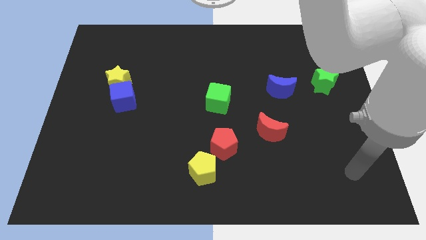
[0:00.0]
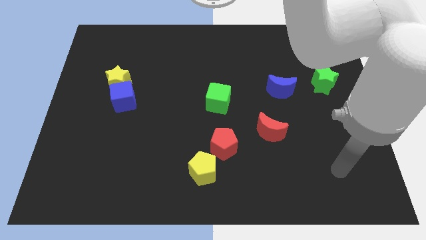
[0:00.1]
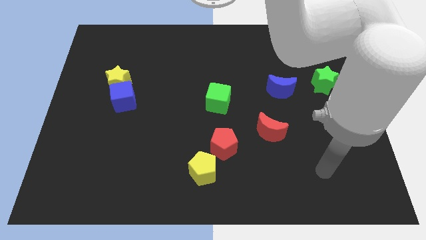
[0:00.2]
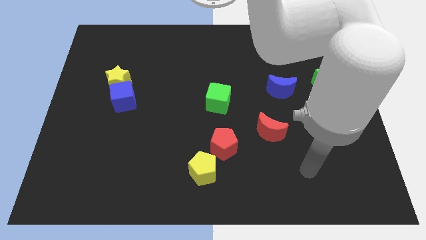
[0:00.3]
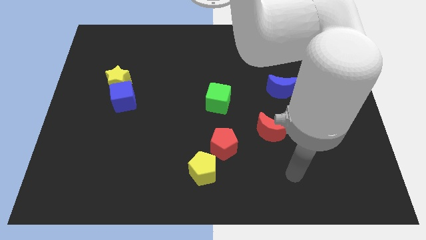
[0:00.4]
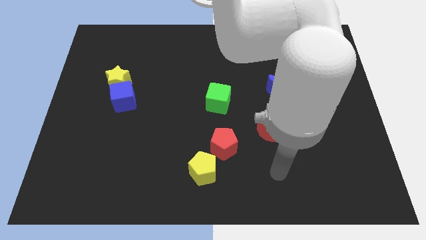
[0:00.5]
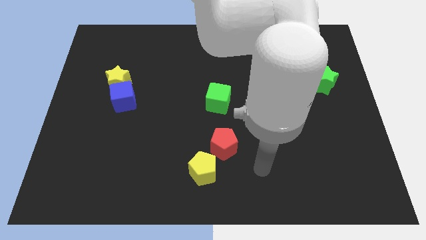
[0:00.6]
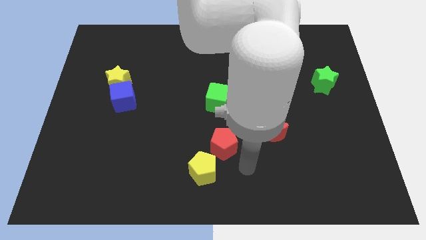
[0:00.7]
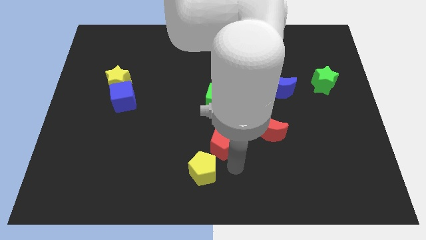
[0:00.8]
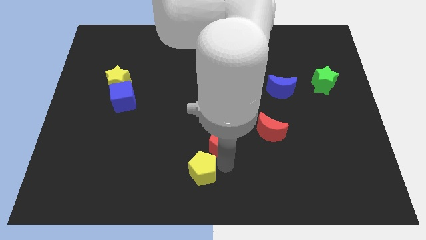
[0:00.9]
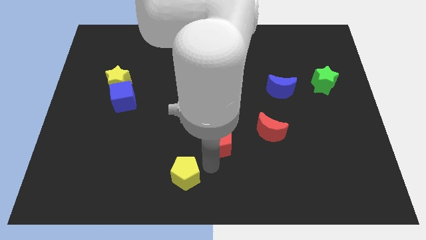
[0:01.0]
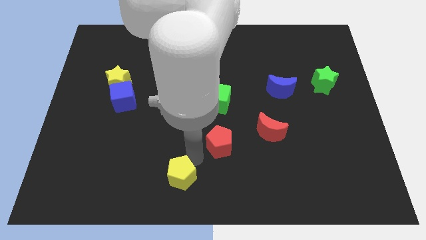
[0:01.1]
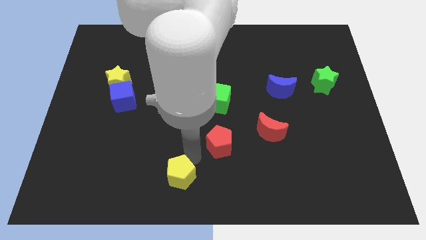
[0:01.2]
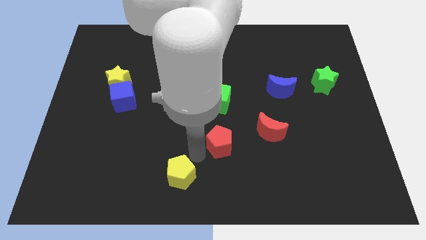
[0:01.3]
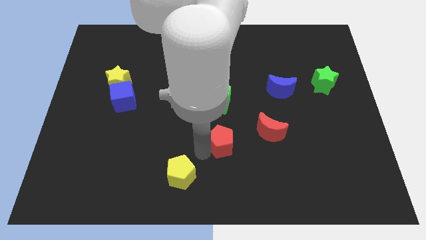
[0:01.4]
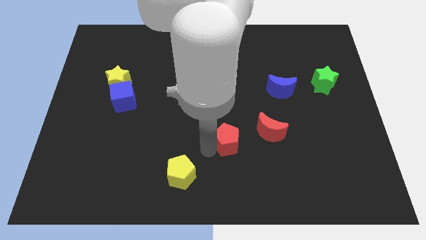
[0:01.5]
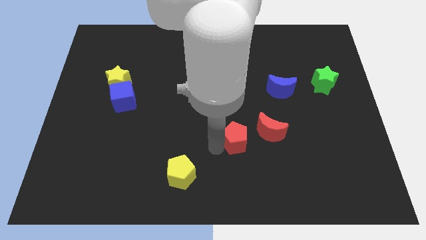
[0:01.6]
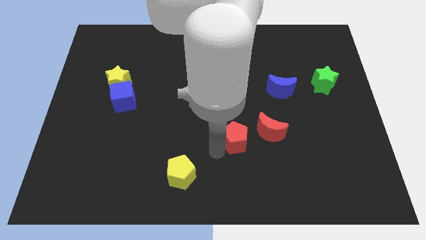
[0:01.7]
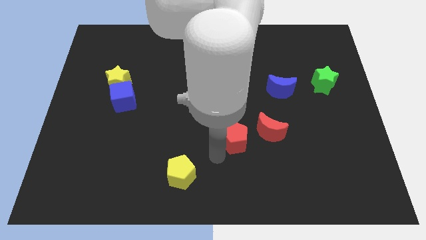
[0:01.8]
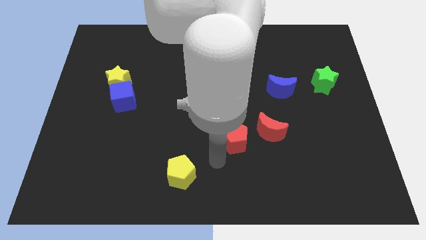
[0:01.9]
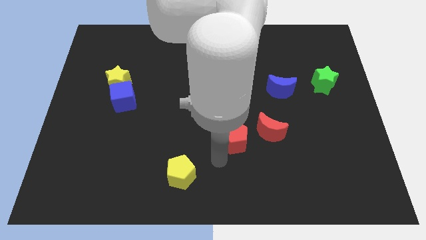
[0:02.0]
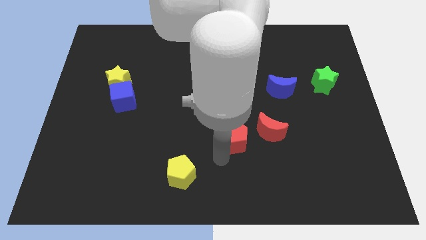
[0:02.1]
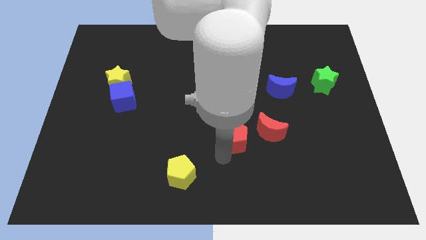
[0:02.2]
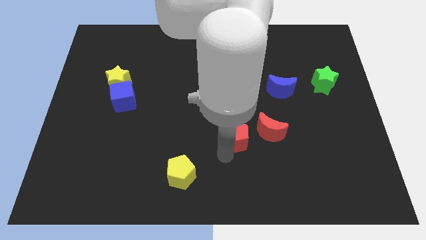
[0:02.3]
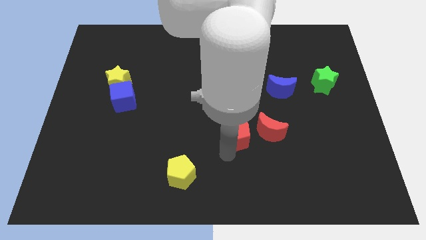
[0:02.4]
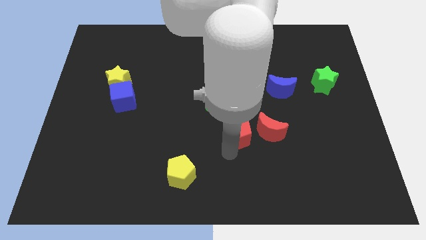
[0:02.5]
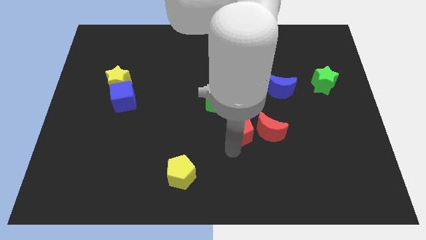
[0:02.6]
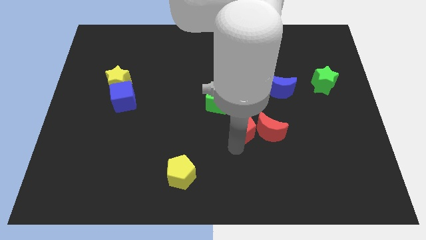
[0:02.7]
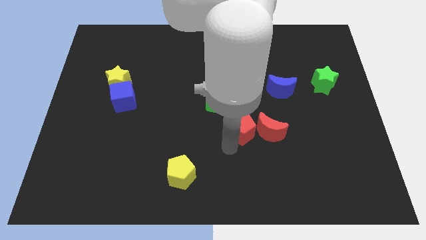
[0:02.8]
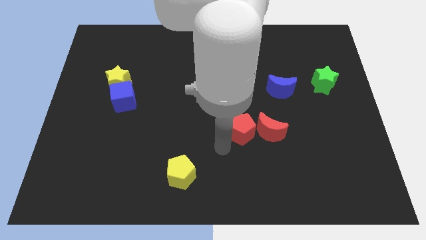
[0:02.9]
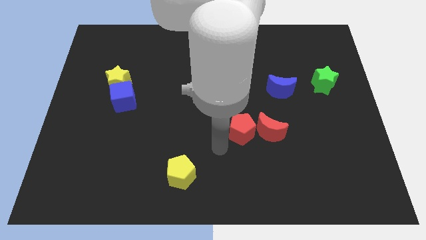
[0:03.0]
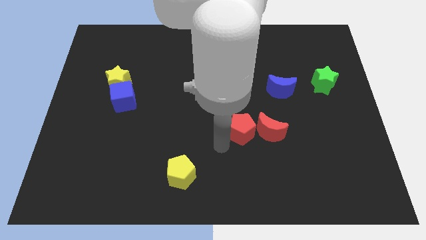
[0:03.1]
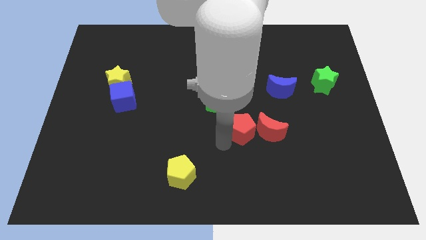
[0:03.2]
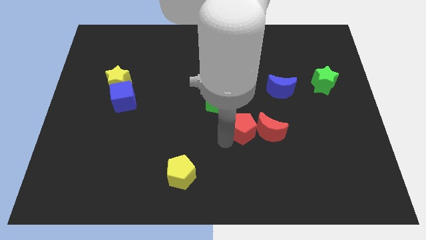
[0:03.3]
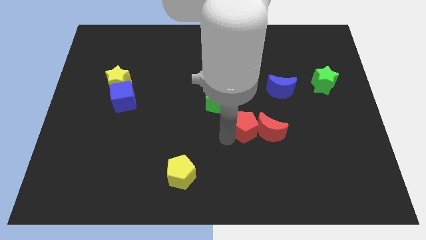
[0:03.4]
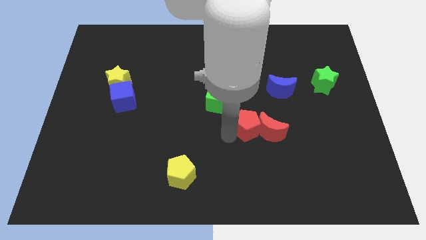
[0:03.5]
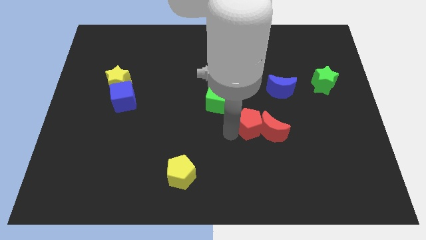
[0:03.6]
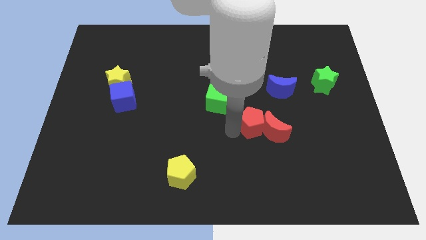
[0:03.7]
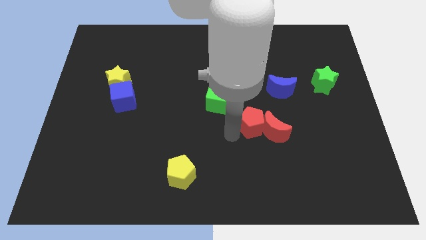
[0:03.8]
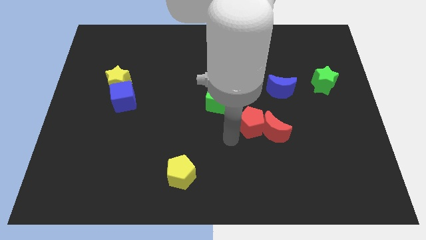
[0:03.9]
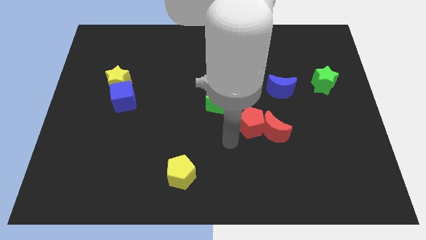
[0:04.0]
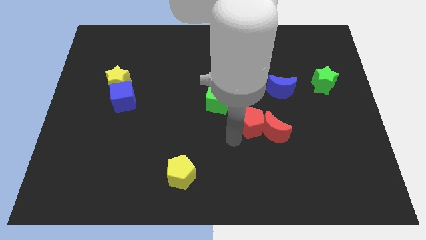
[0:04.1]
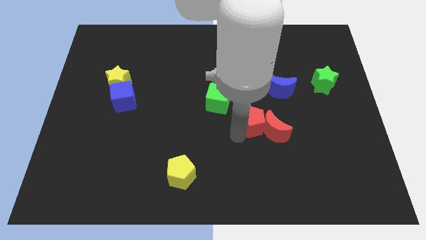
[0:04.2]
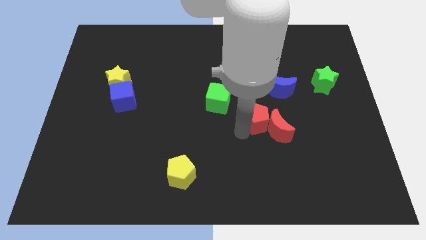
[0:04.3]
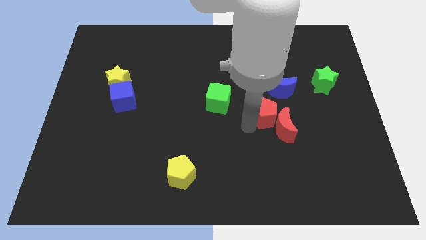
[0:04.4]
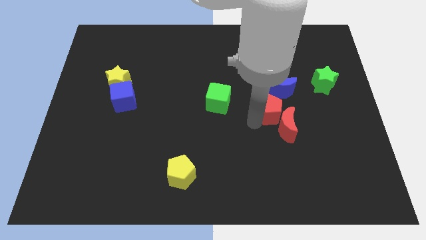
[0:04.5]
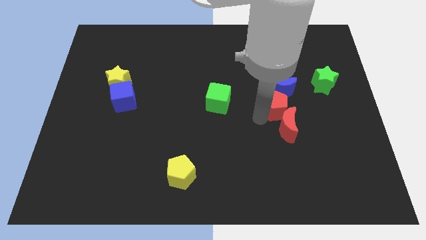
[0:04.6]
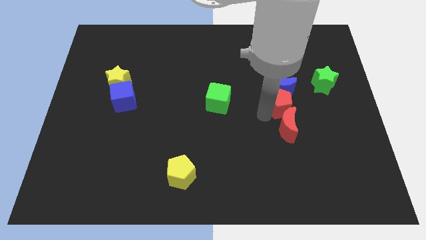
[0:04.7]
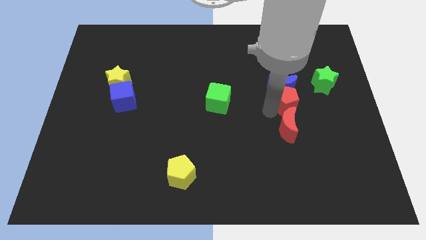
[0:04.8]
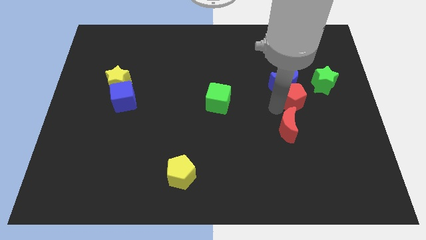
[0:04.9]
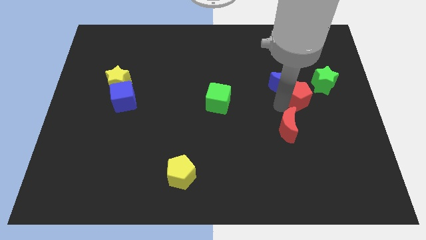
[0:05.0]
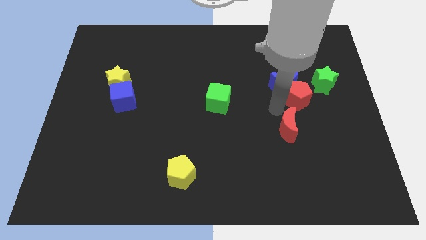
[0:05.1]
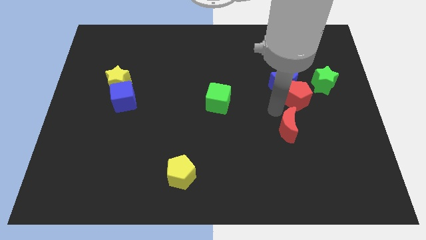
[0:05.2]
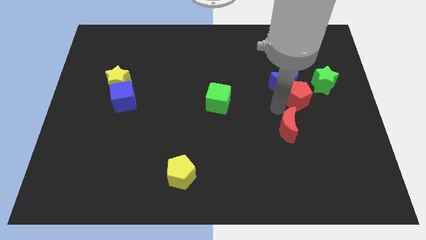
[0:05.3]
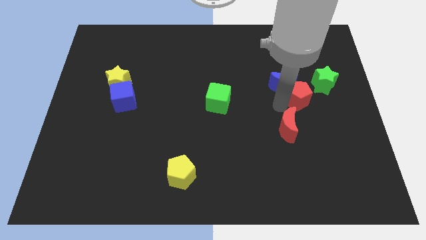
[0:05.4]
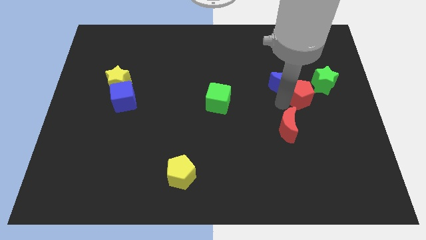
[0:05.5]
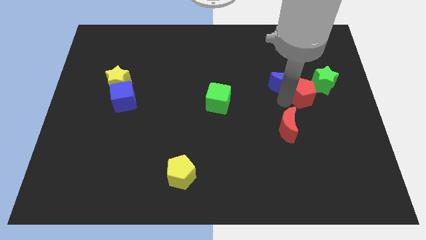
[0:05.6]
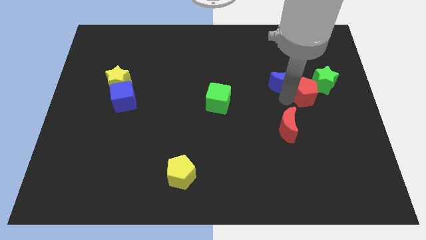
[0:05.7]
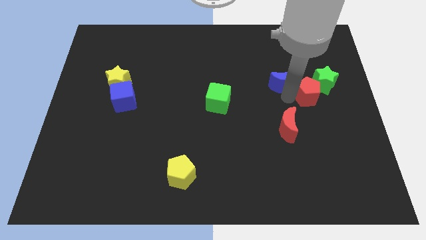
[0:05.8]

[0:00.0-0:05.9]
slide the red pentagon close to the green star

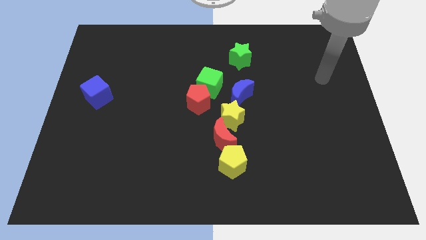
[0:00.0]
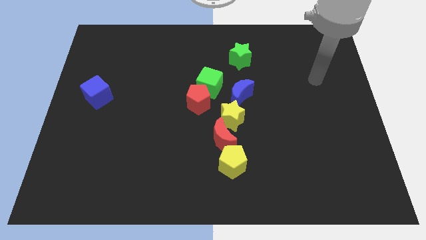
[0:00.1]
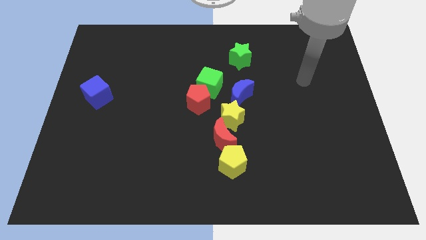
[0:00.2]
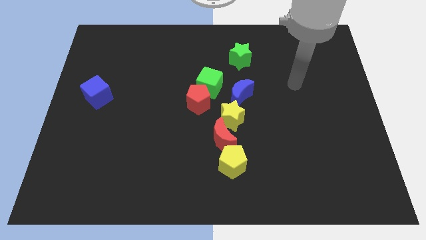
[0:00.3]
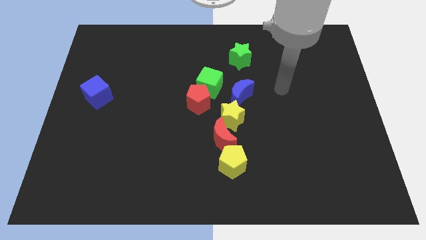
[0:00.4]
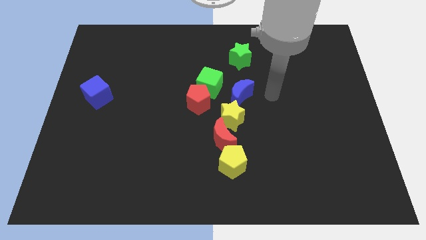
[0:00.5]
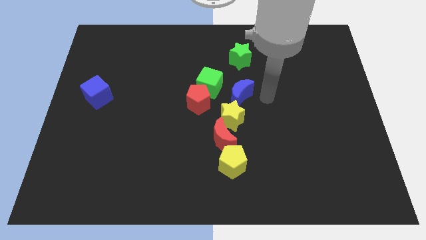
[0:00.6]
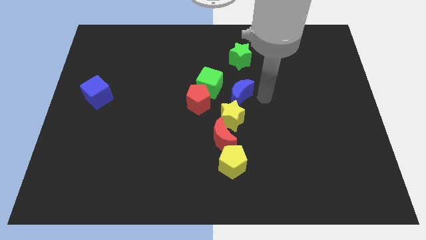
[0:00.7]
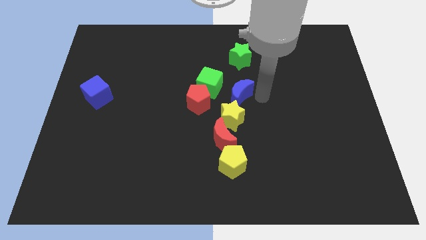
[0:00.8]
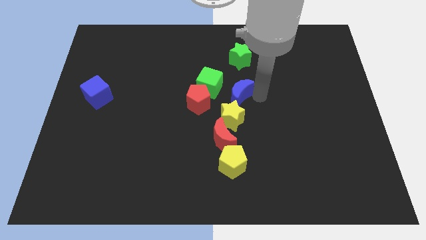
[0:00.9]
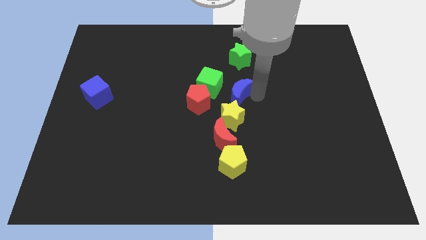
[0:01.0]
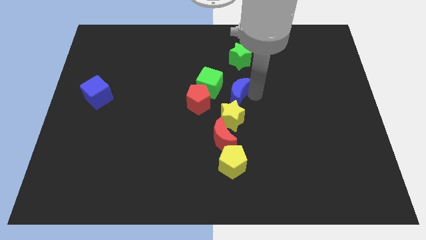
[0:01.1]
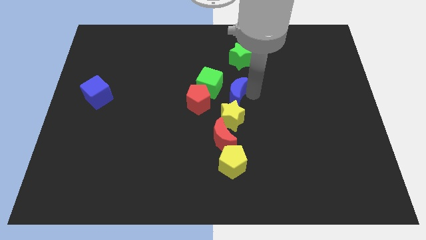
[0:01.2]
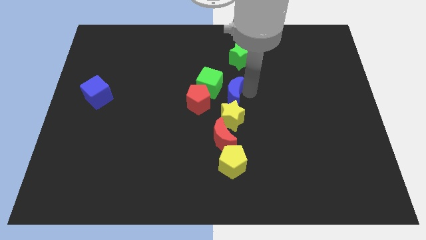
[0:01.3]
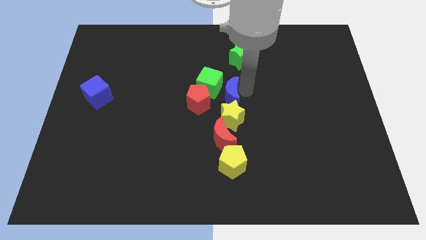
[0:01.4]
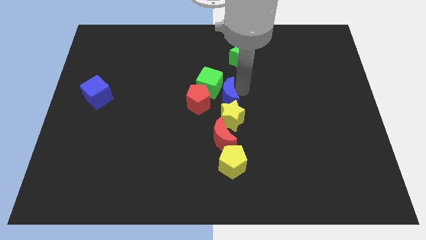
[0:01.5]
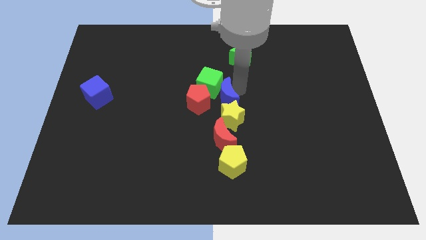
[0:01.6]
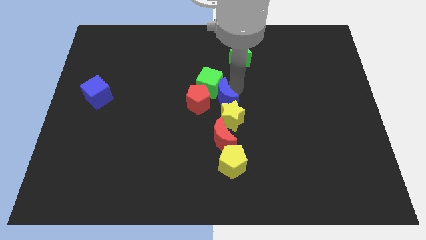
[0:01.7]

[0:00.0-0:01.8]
push the blue moon next to the red pentagon
